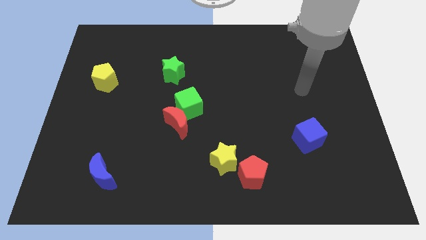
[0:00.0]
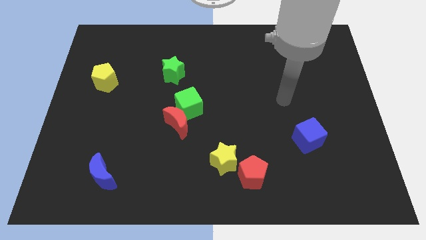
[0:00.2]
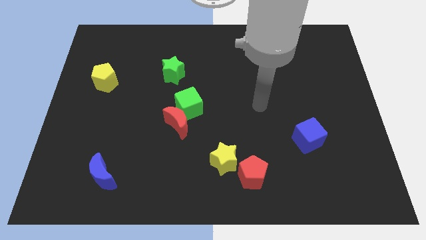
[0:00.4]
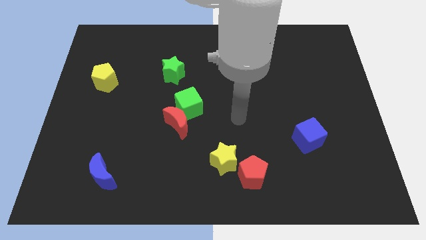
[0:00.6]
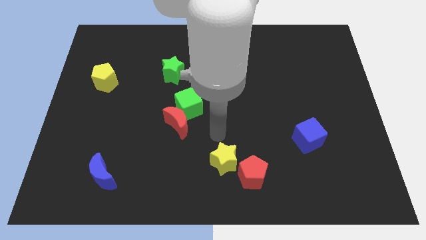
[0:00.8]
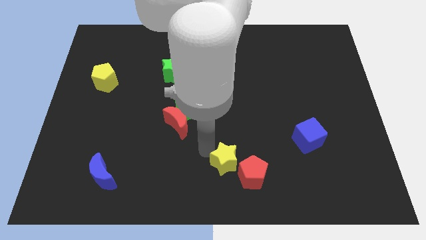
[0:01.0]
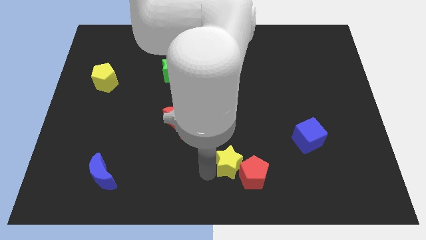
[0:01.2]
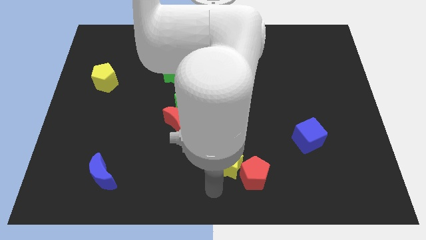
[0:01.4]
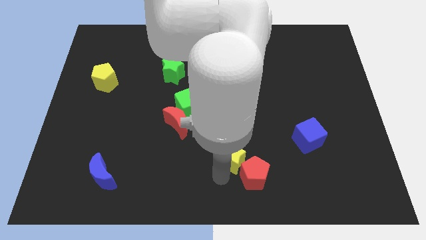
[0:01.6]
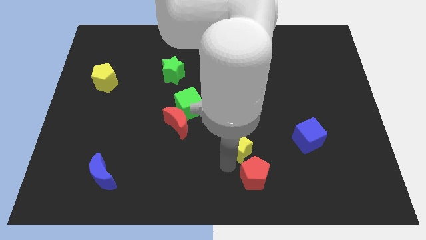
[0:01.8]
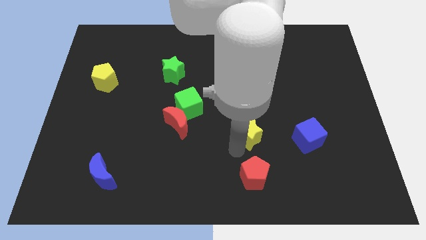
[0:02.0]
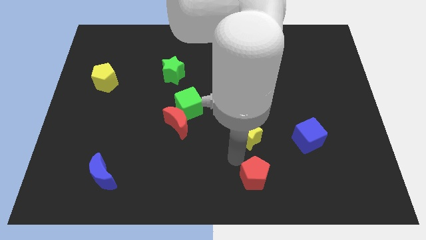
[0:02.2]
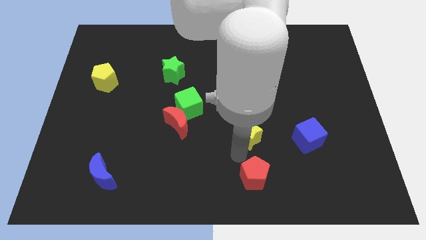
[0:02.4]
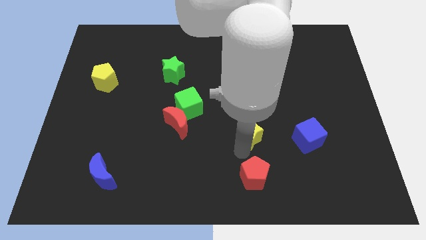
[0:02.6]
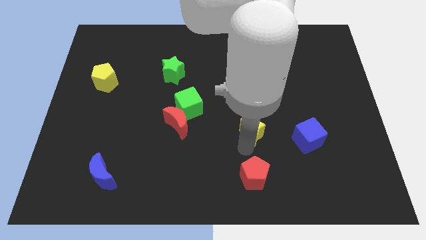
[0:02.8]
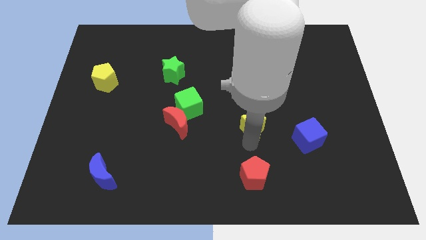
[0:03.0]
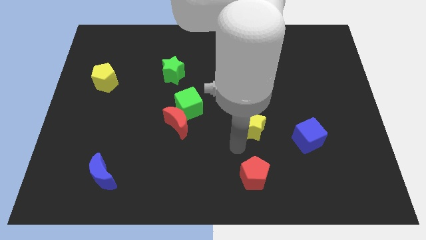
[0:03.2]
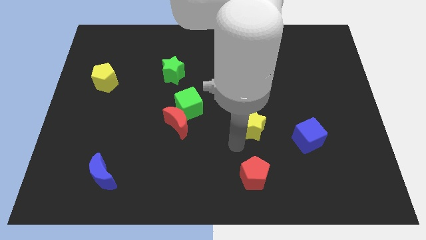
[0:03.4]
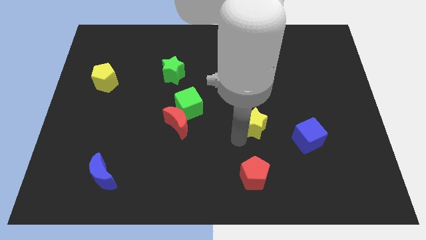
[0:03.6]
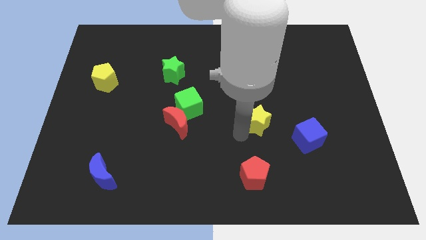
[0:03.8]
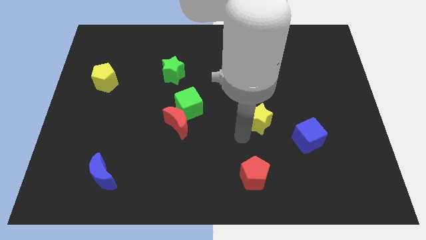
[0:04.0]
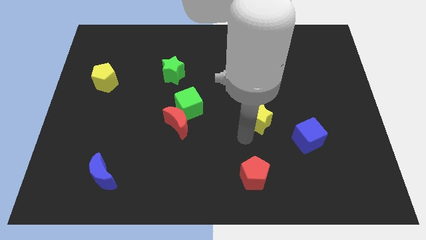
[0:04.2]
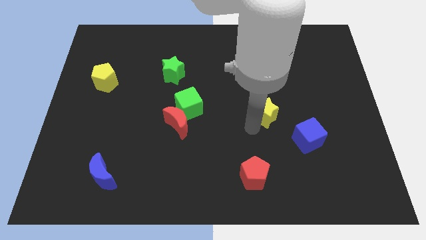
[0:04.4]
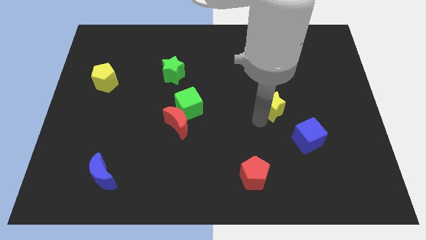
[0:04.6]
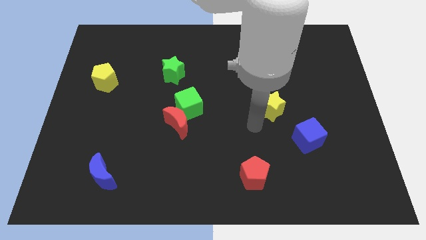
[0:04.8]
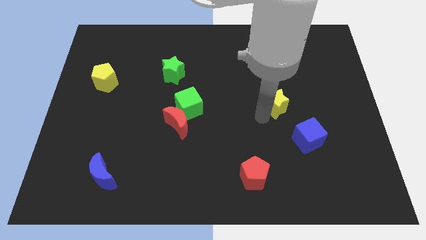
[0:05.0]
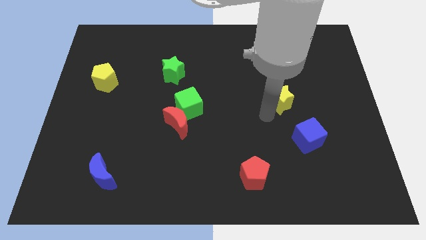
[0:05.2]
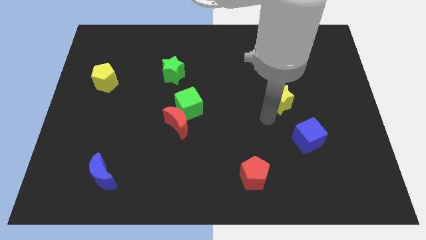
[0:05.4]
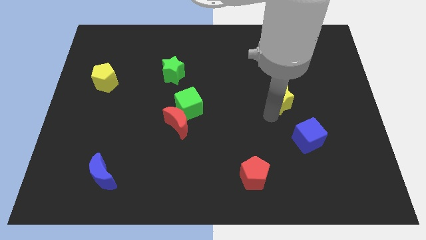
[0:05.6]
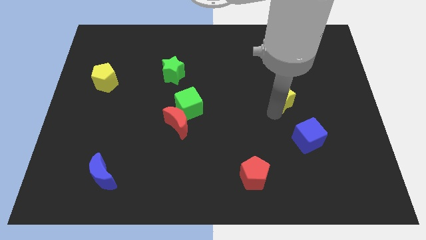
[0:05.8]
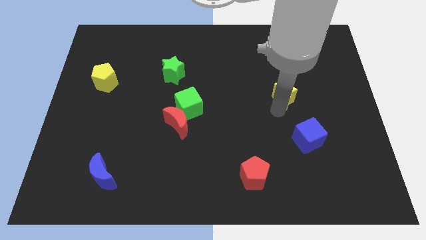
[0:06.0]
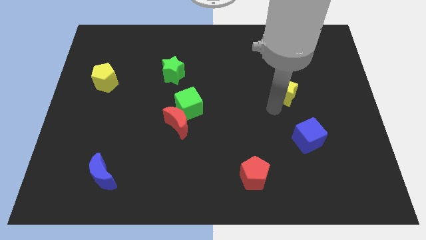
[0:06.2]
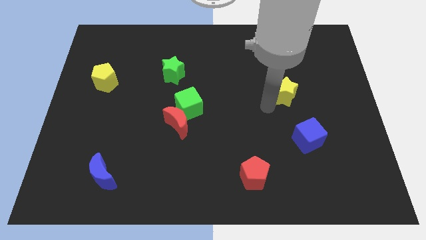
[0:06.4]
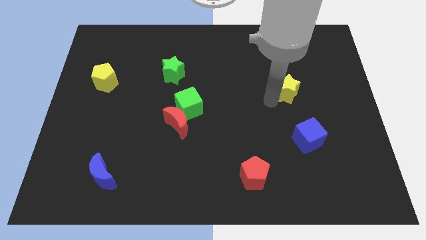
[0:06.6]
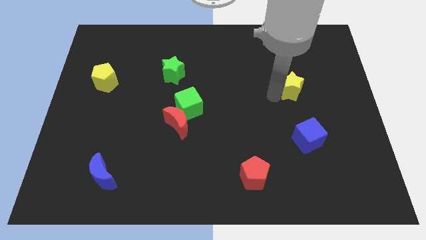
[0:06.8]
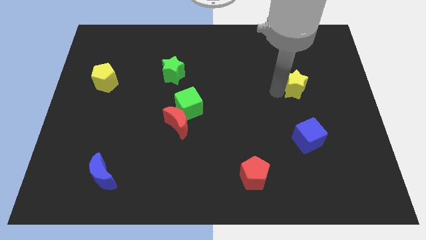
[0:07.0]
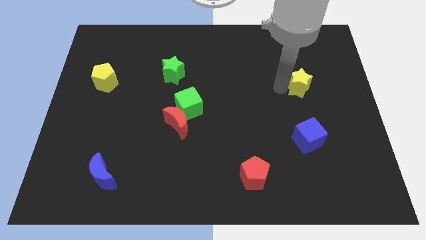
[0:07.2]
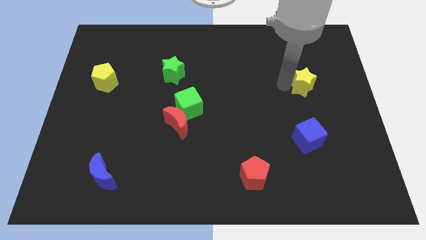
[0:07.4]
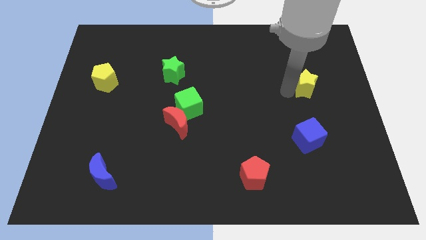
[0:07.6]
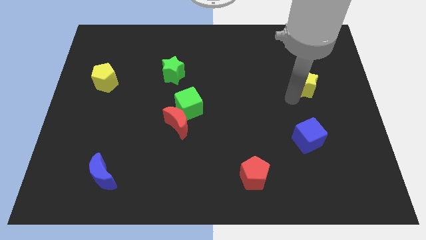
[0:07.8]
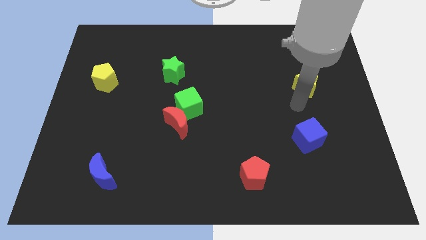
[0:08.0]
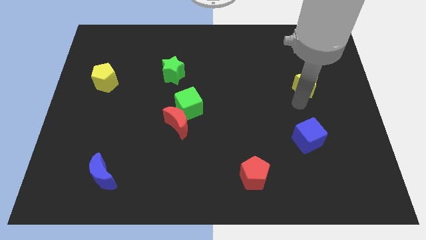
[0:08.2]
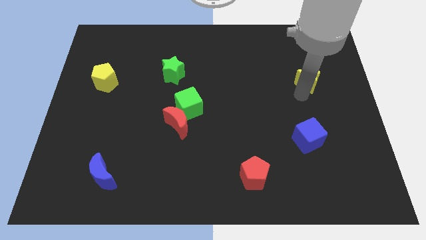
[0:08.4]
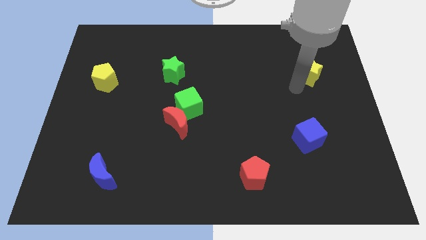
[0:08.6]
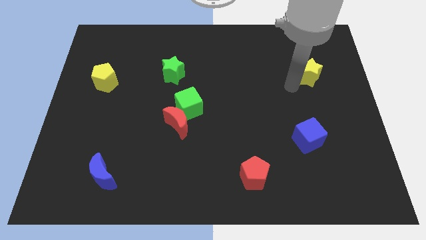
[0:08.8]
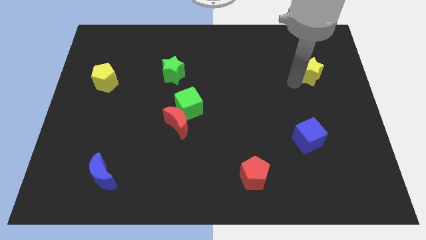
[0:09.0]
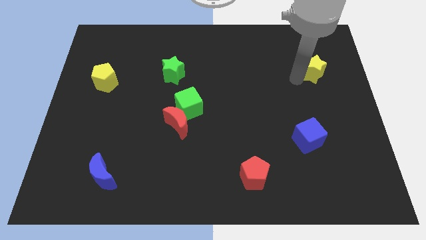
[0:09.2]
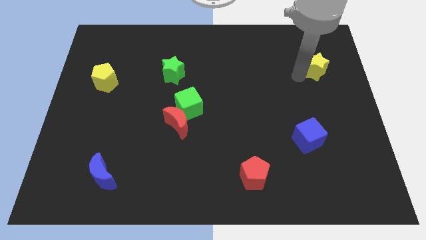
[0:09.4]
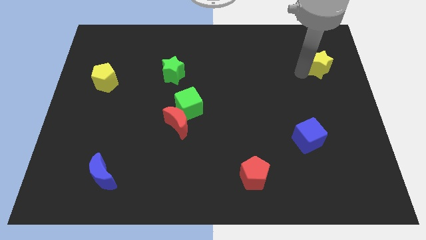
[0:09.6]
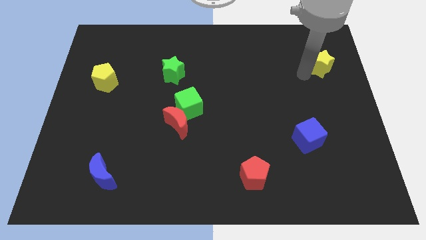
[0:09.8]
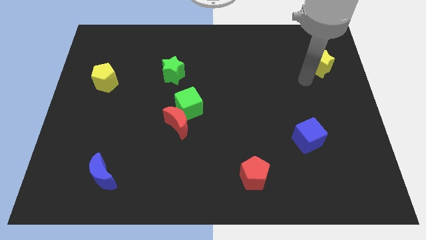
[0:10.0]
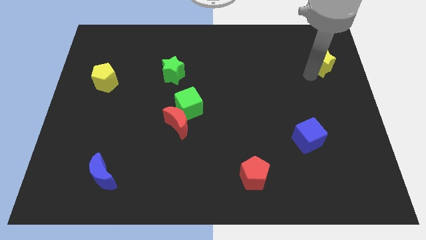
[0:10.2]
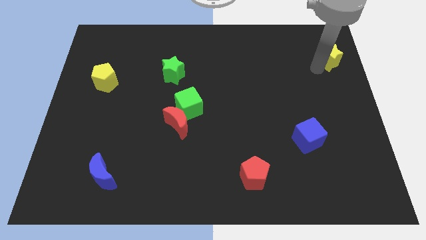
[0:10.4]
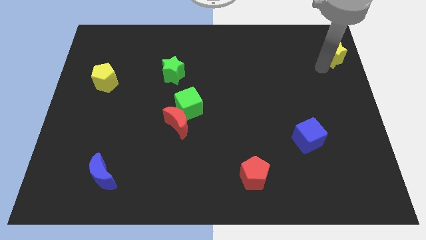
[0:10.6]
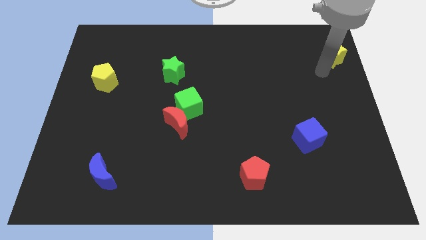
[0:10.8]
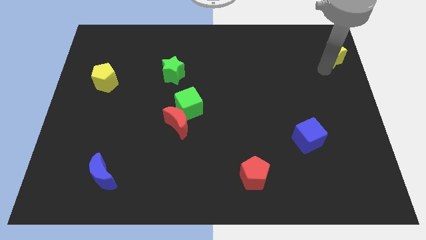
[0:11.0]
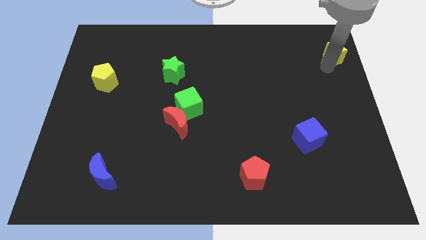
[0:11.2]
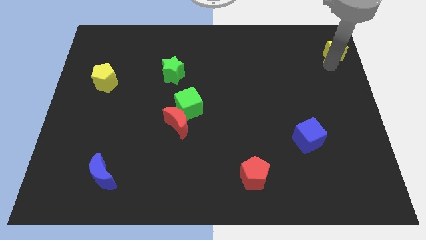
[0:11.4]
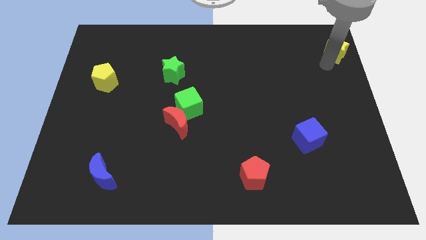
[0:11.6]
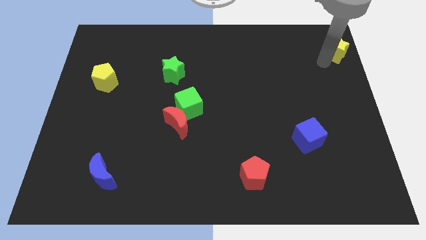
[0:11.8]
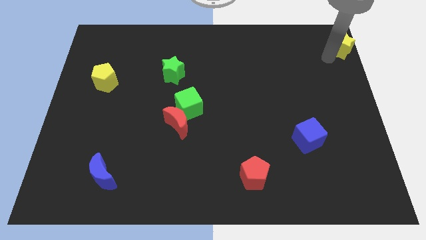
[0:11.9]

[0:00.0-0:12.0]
move the yellow star to the upper right corner
